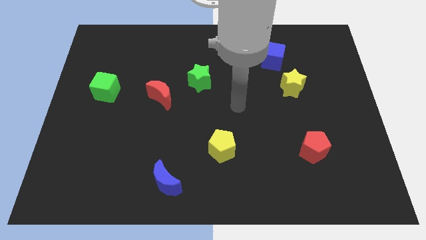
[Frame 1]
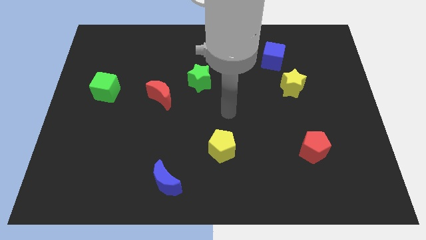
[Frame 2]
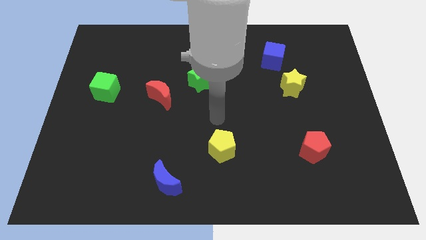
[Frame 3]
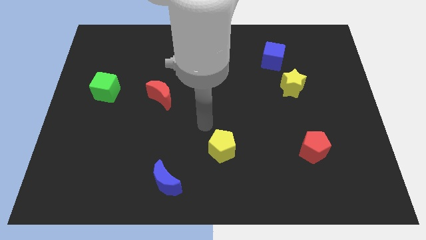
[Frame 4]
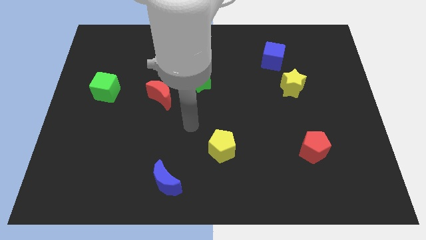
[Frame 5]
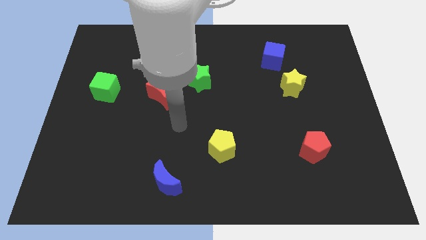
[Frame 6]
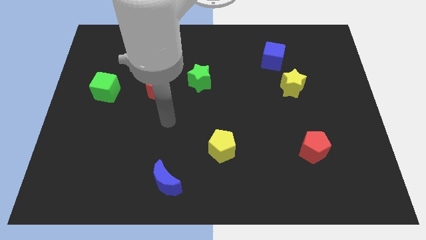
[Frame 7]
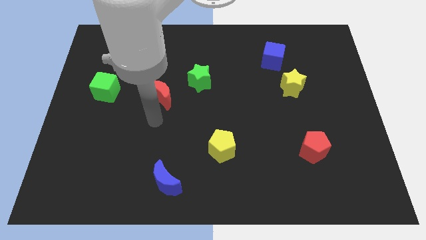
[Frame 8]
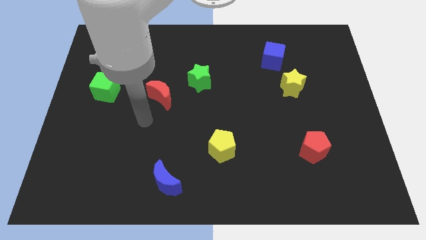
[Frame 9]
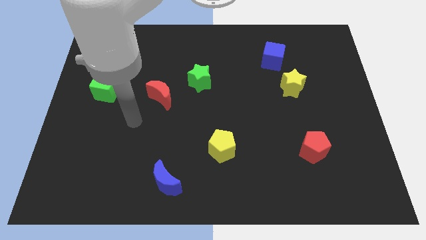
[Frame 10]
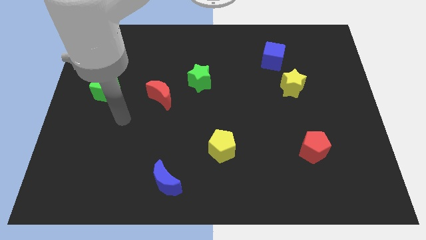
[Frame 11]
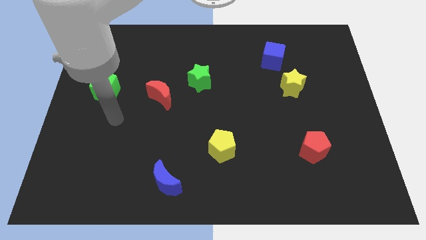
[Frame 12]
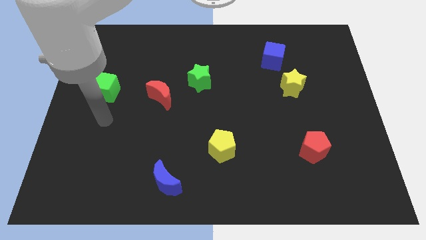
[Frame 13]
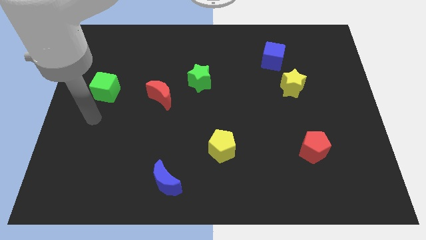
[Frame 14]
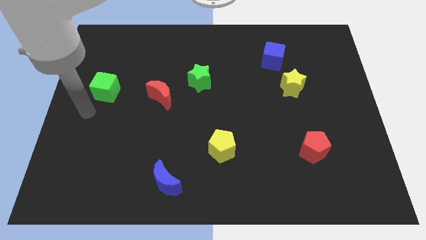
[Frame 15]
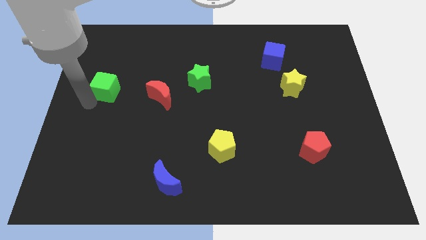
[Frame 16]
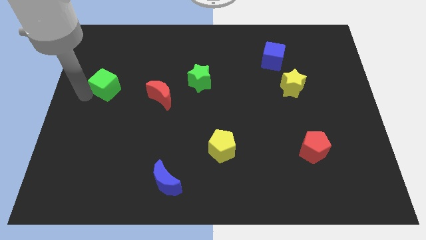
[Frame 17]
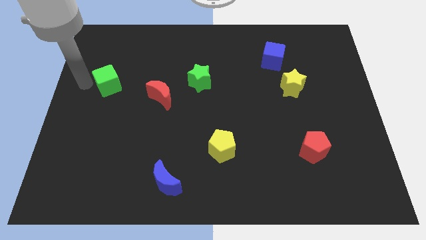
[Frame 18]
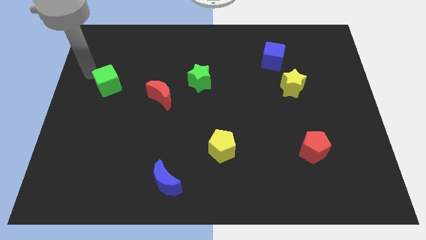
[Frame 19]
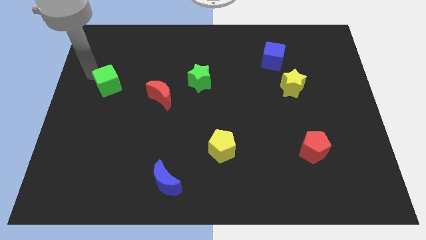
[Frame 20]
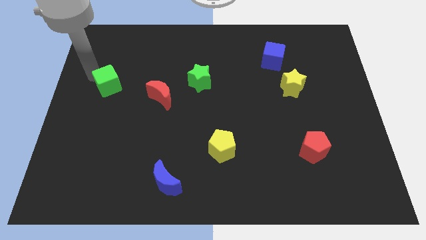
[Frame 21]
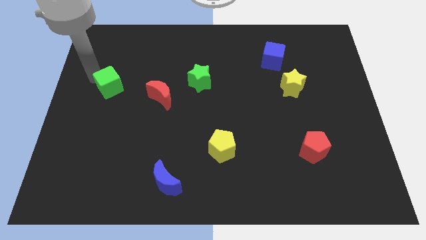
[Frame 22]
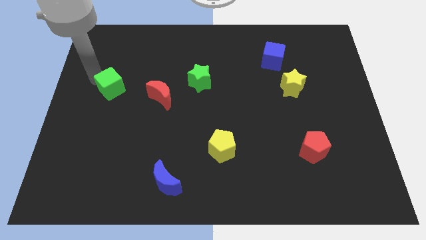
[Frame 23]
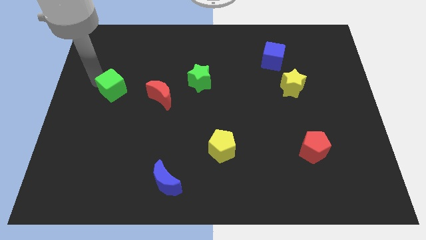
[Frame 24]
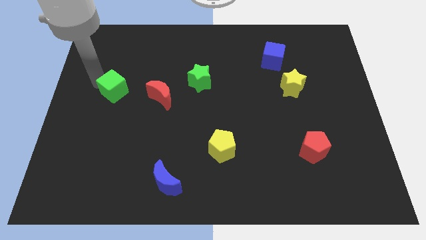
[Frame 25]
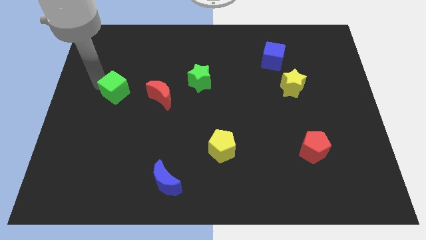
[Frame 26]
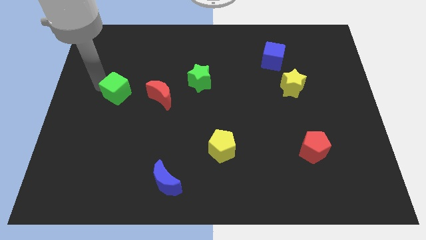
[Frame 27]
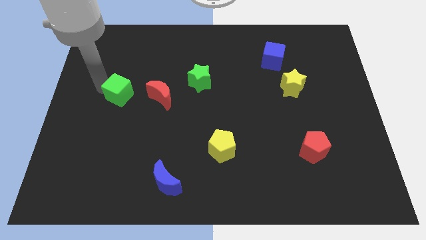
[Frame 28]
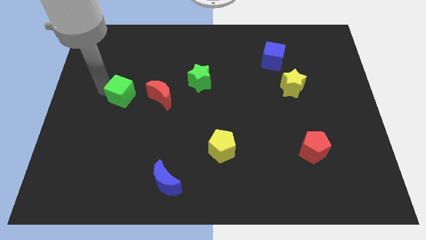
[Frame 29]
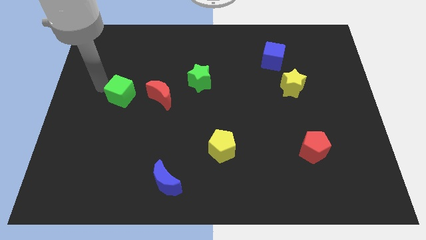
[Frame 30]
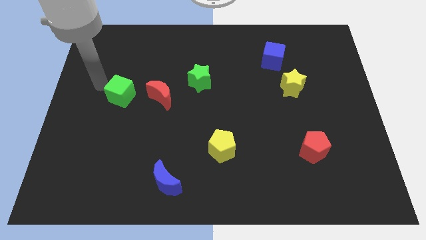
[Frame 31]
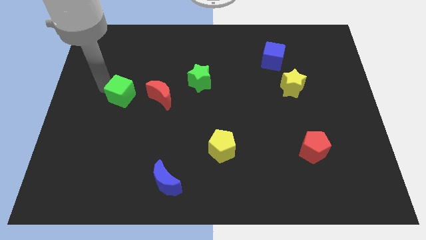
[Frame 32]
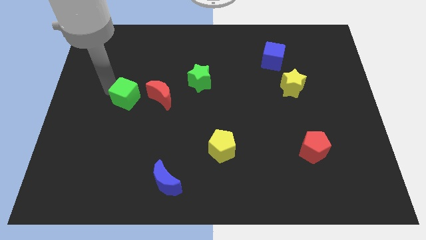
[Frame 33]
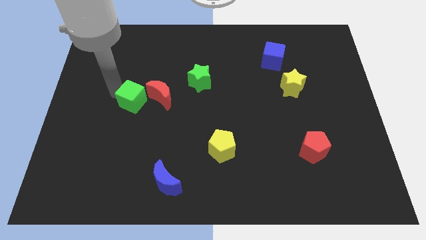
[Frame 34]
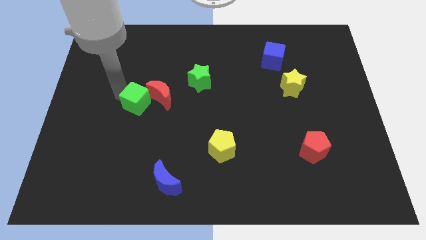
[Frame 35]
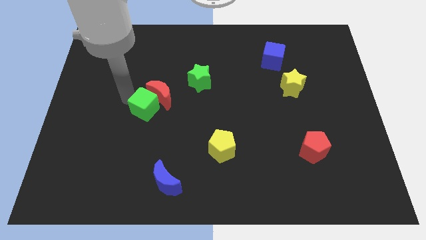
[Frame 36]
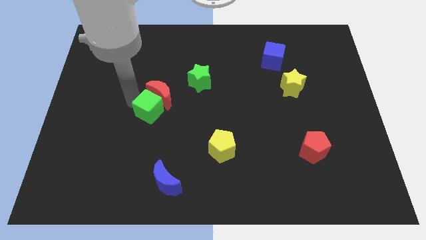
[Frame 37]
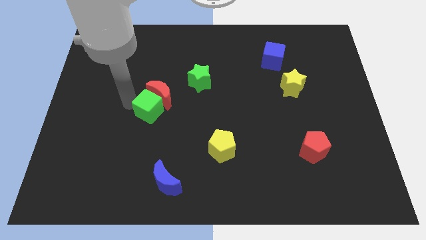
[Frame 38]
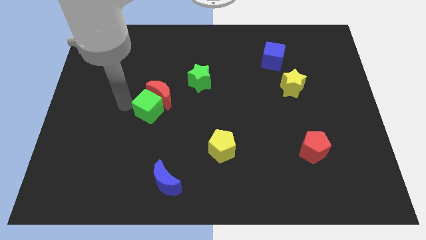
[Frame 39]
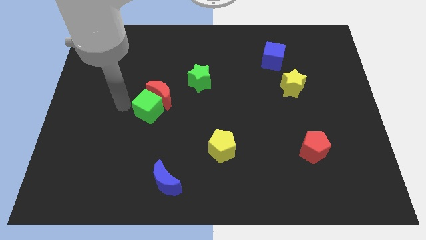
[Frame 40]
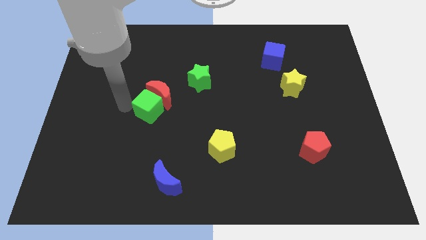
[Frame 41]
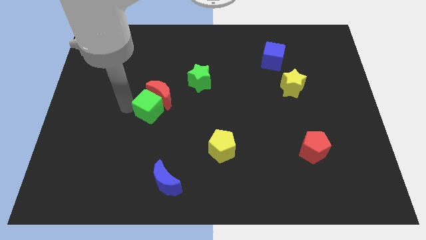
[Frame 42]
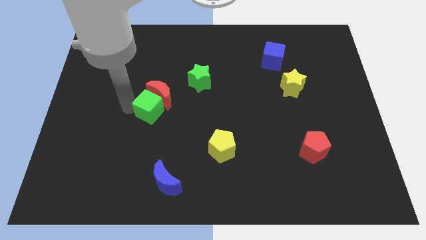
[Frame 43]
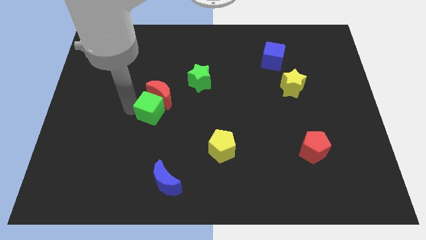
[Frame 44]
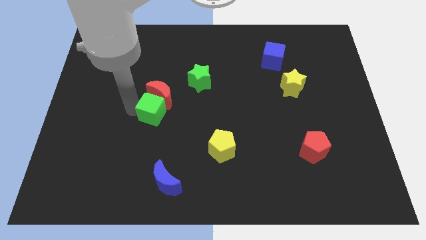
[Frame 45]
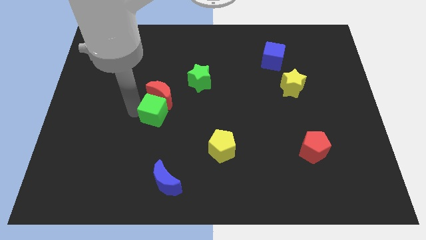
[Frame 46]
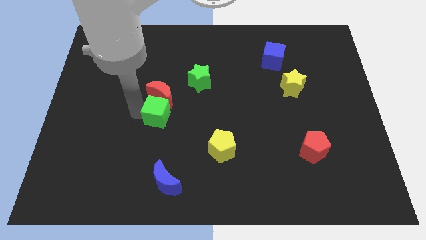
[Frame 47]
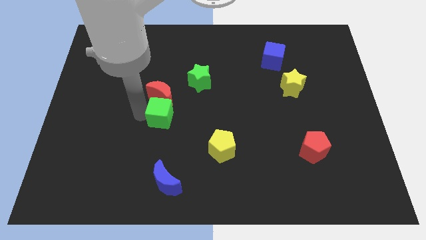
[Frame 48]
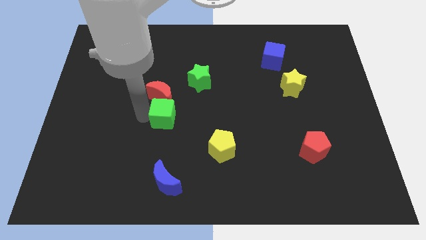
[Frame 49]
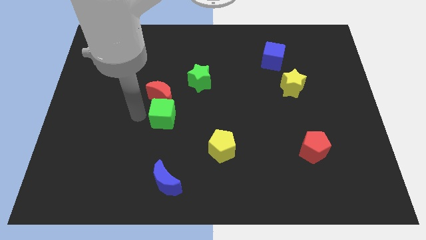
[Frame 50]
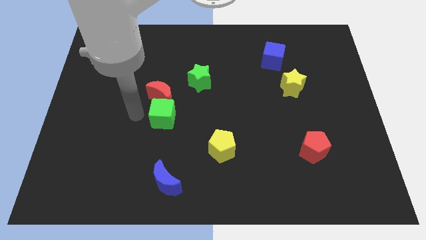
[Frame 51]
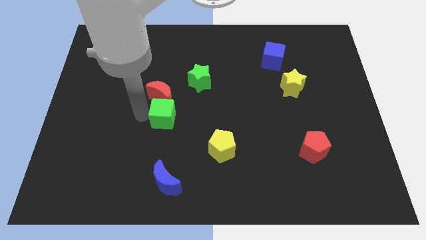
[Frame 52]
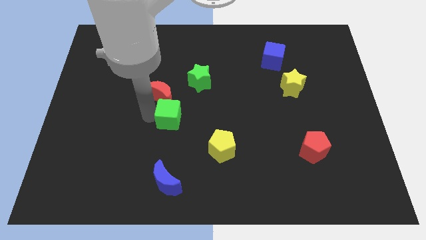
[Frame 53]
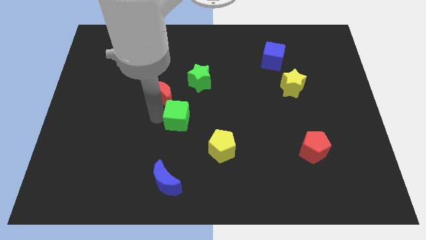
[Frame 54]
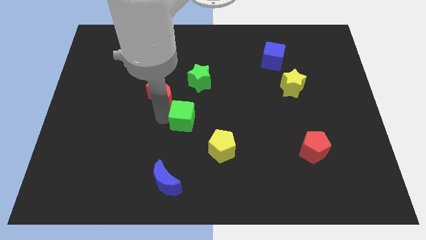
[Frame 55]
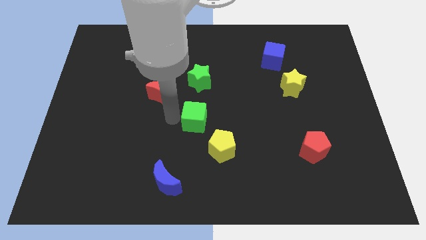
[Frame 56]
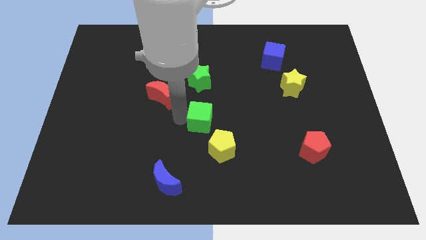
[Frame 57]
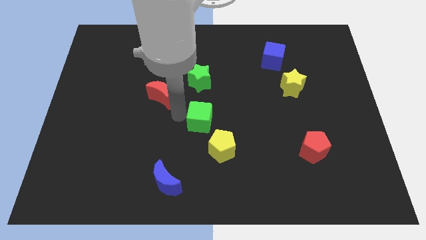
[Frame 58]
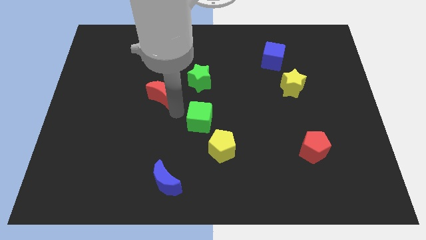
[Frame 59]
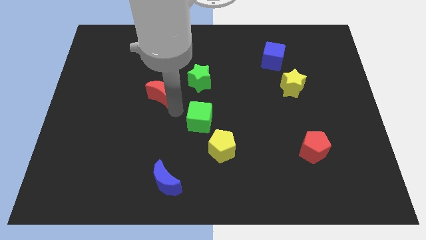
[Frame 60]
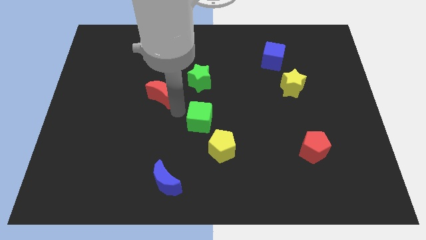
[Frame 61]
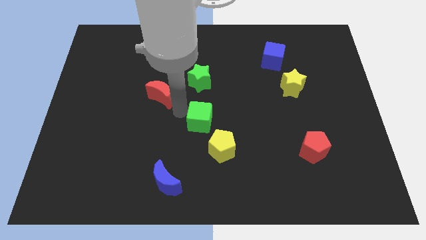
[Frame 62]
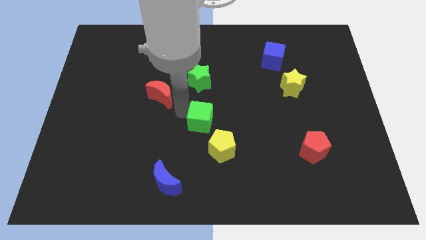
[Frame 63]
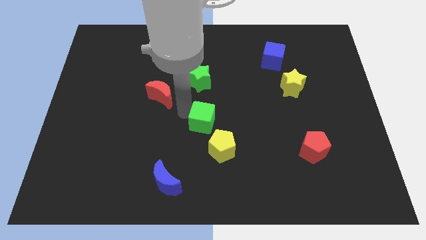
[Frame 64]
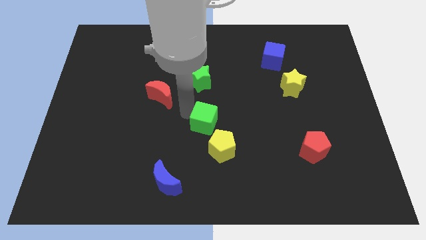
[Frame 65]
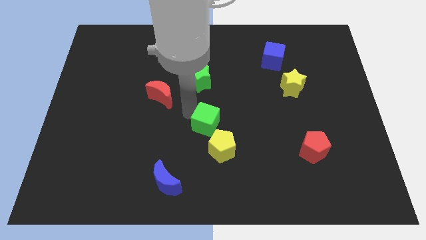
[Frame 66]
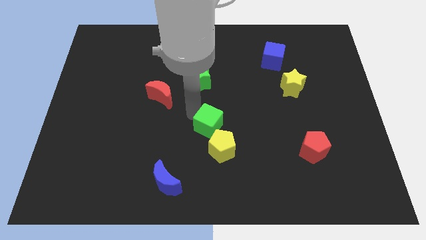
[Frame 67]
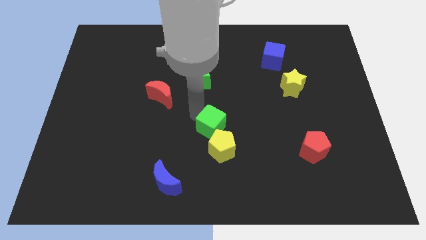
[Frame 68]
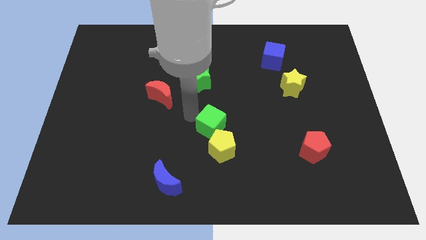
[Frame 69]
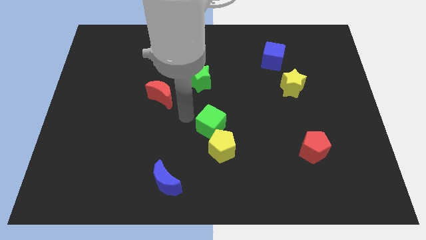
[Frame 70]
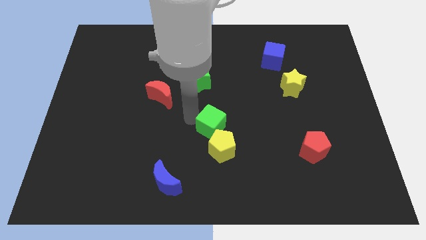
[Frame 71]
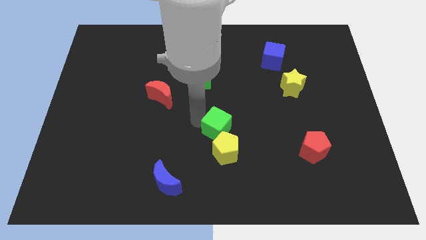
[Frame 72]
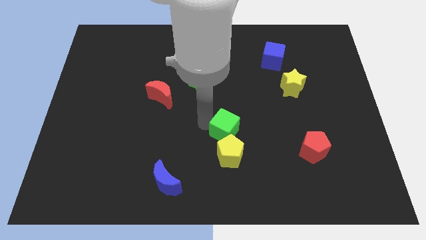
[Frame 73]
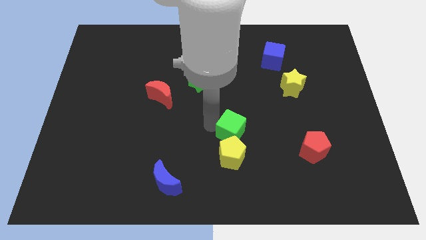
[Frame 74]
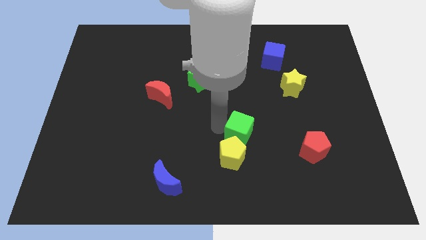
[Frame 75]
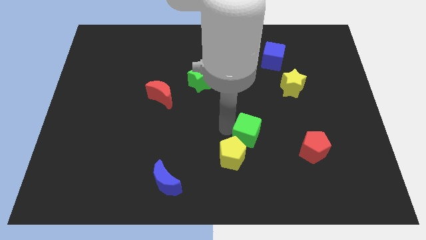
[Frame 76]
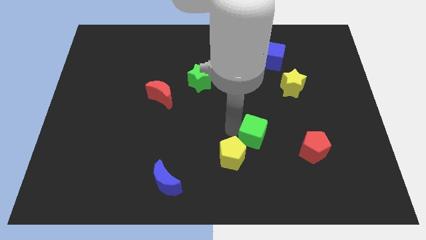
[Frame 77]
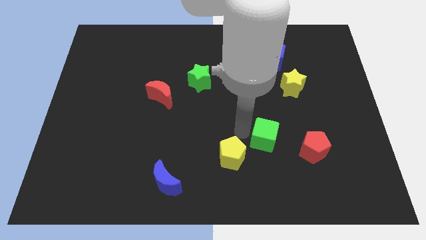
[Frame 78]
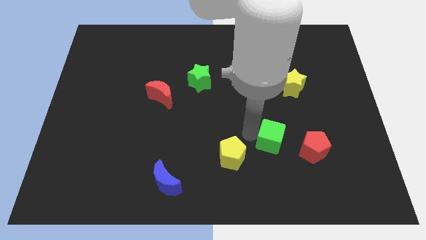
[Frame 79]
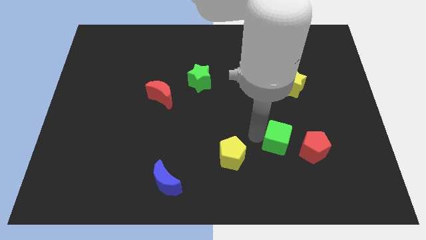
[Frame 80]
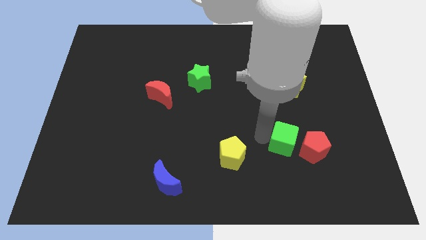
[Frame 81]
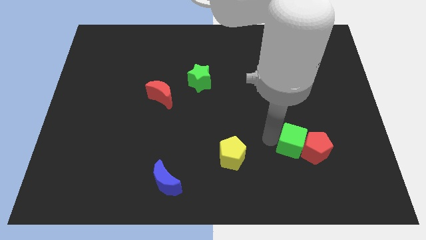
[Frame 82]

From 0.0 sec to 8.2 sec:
put the green cube towards the red pentagon
